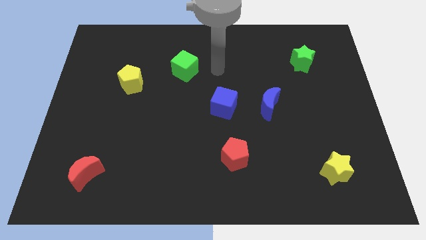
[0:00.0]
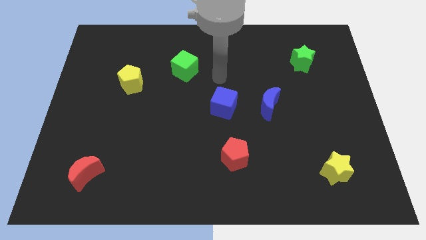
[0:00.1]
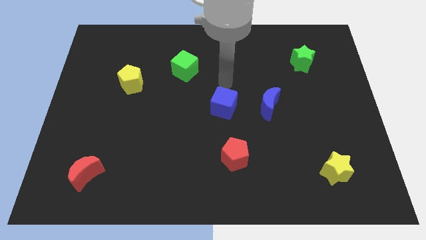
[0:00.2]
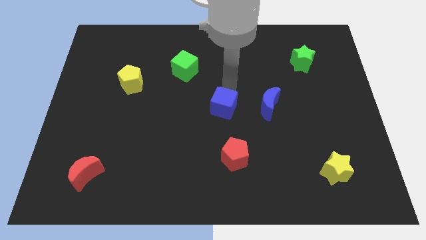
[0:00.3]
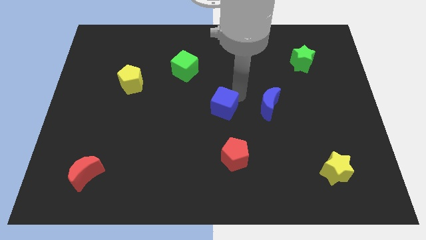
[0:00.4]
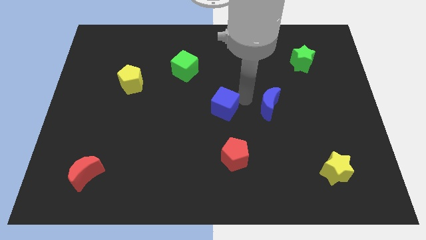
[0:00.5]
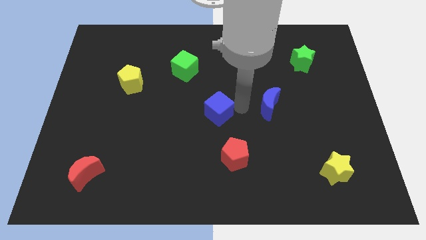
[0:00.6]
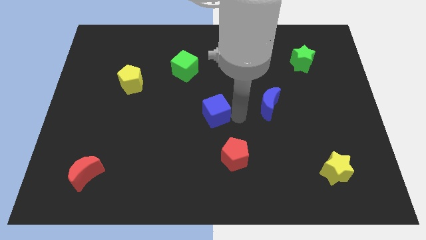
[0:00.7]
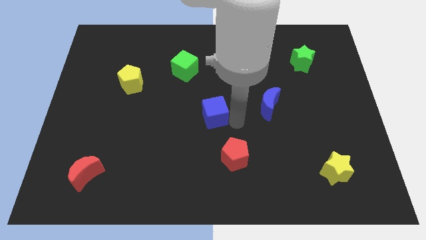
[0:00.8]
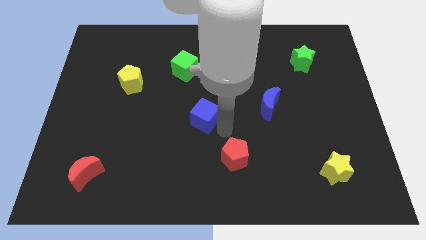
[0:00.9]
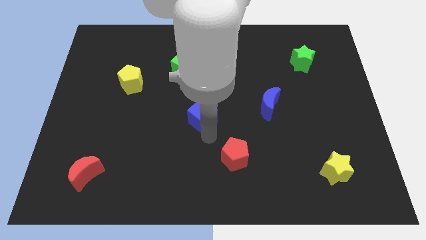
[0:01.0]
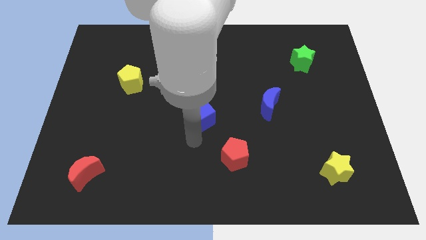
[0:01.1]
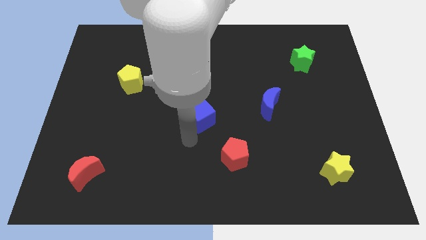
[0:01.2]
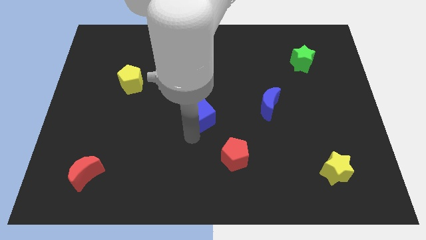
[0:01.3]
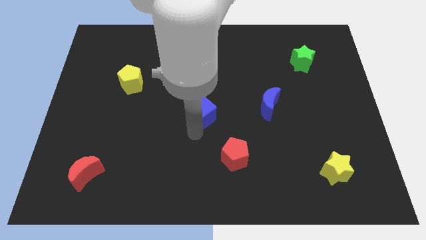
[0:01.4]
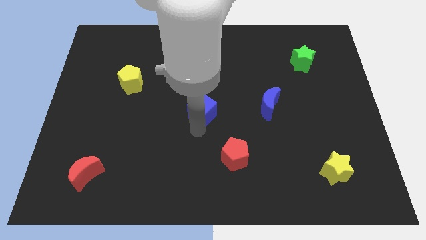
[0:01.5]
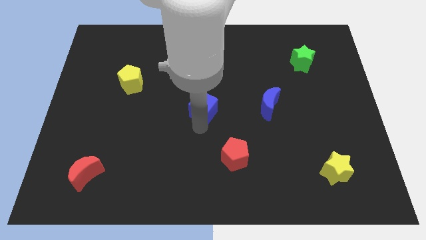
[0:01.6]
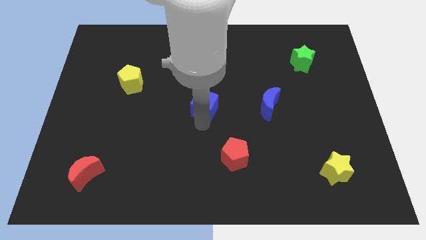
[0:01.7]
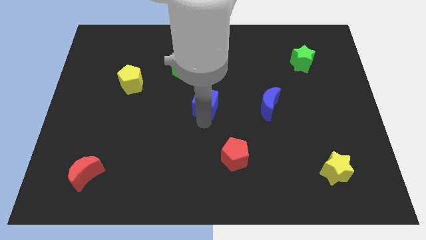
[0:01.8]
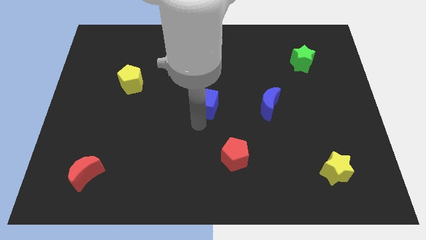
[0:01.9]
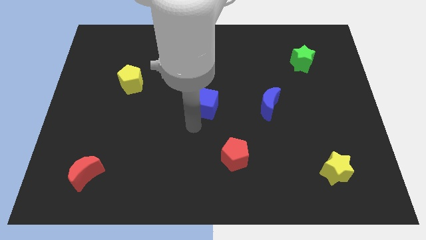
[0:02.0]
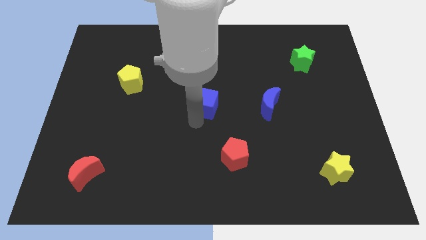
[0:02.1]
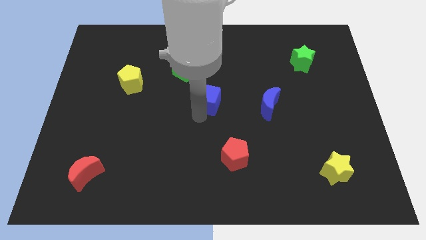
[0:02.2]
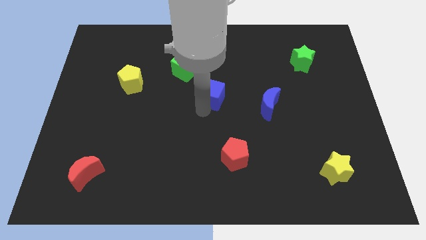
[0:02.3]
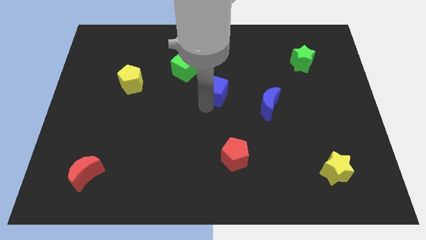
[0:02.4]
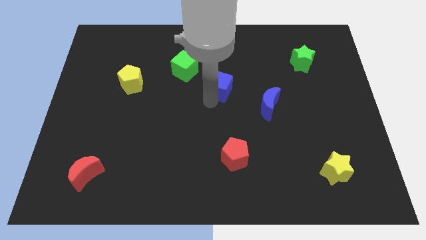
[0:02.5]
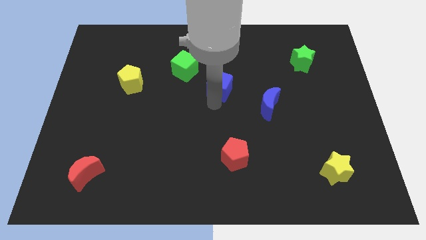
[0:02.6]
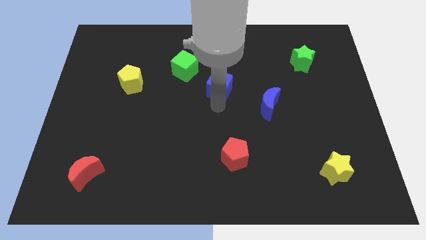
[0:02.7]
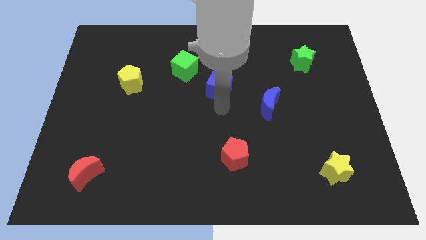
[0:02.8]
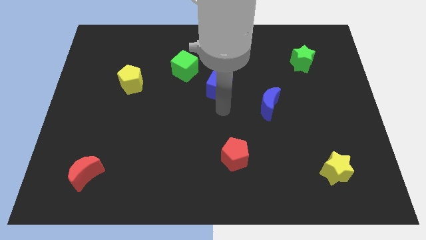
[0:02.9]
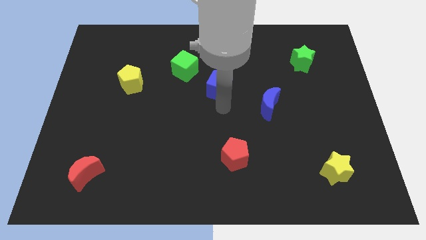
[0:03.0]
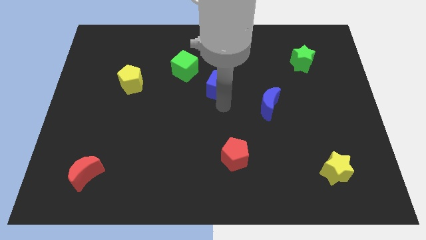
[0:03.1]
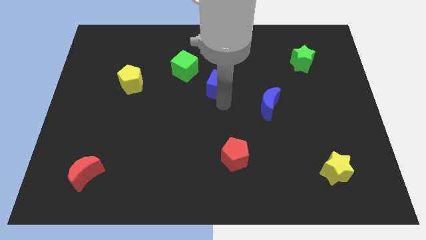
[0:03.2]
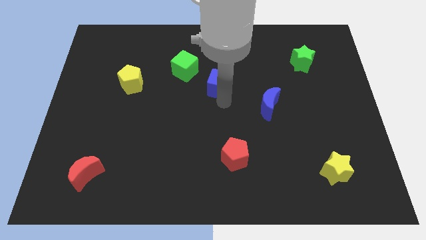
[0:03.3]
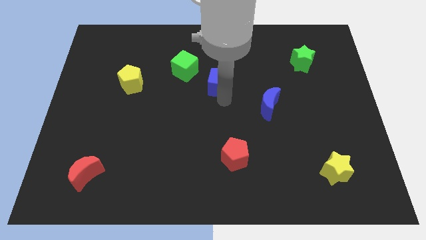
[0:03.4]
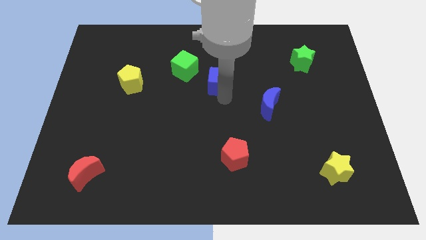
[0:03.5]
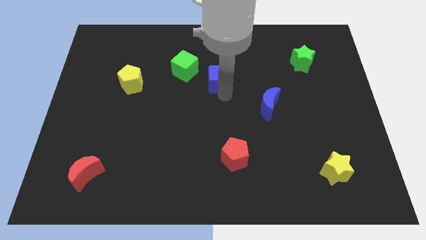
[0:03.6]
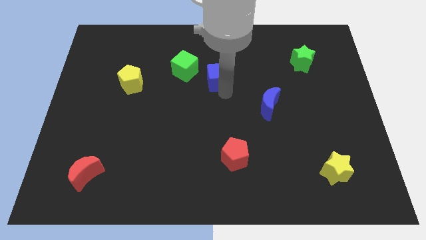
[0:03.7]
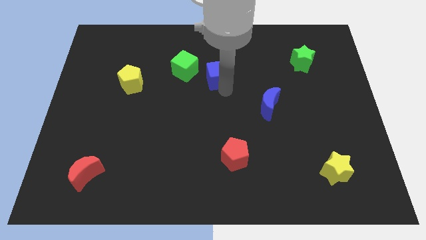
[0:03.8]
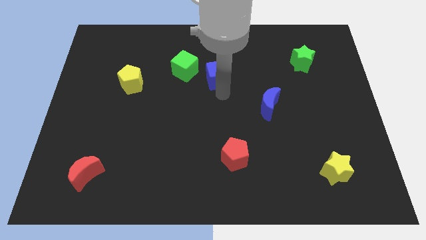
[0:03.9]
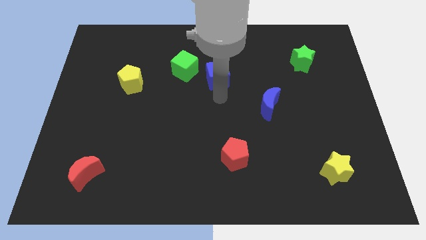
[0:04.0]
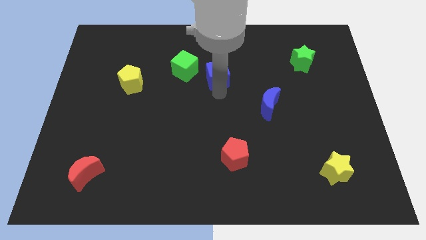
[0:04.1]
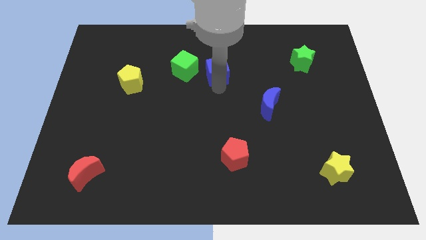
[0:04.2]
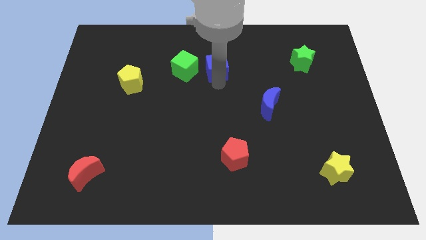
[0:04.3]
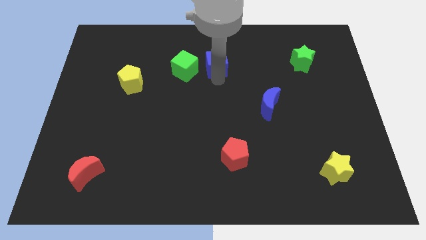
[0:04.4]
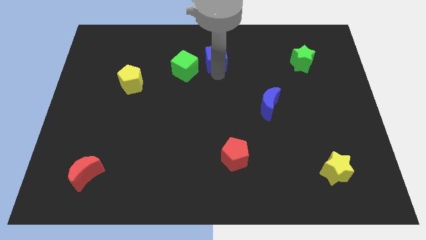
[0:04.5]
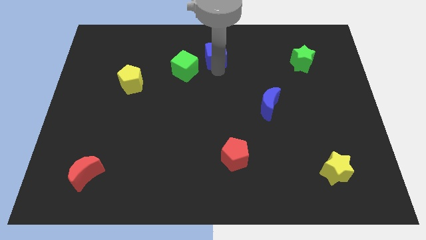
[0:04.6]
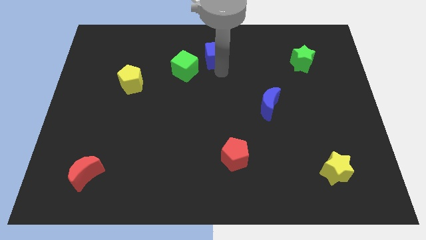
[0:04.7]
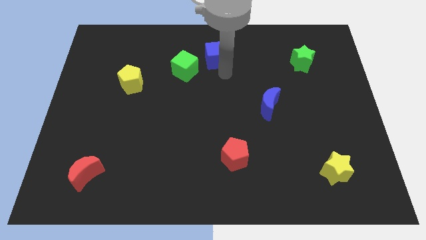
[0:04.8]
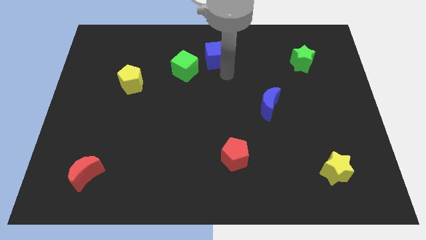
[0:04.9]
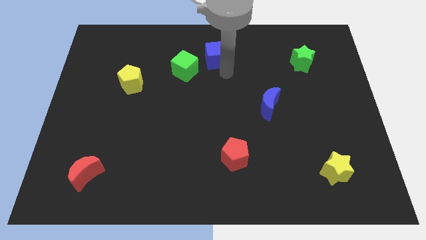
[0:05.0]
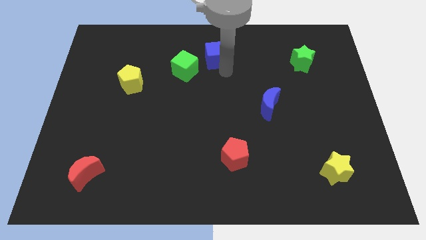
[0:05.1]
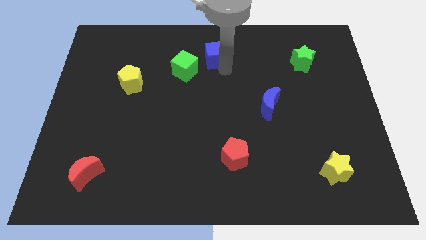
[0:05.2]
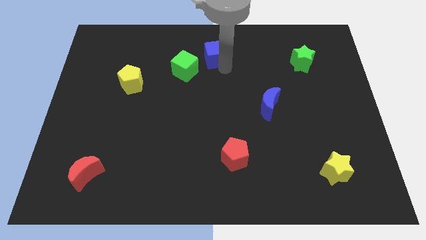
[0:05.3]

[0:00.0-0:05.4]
put the blue cube to the towards your base
